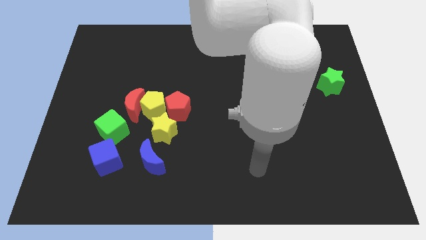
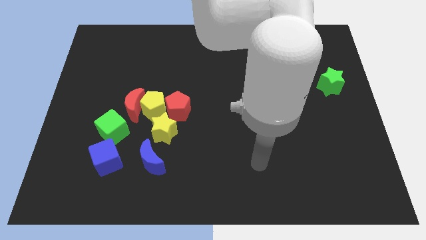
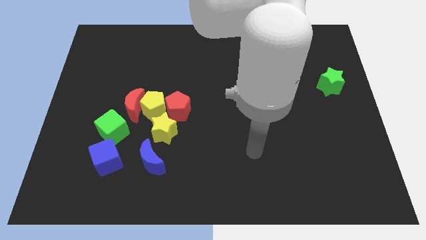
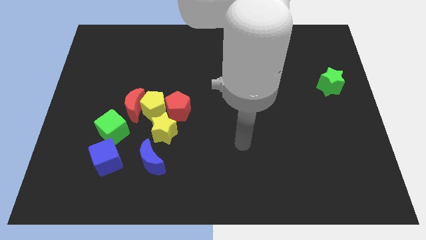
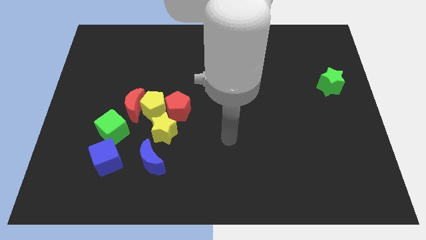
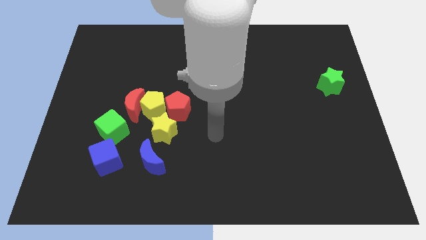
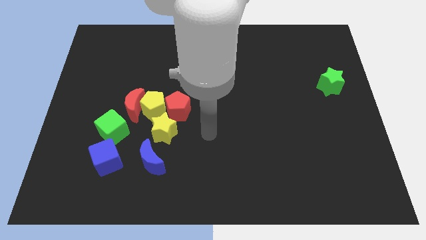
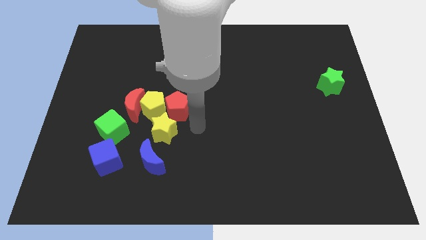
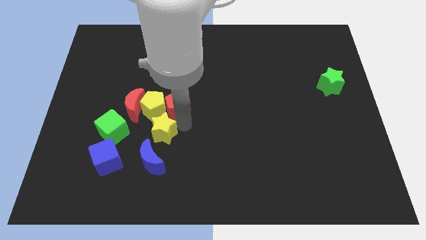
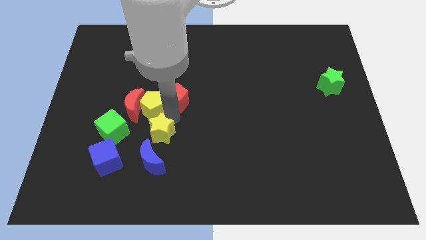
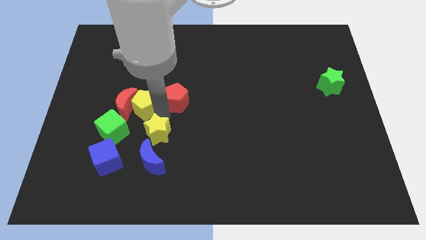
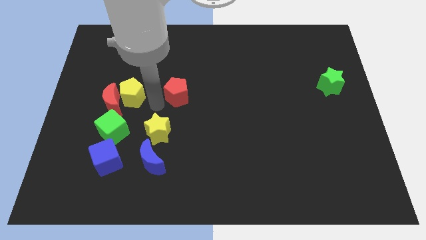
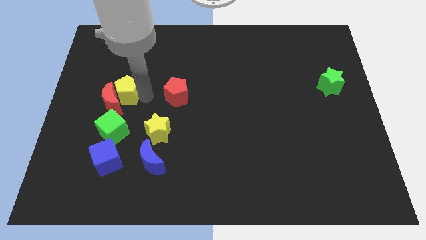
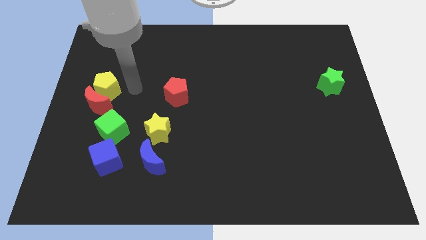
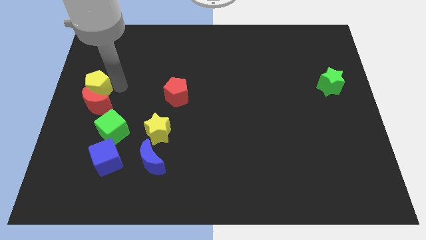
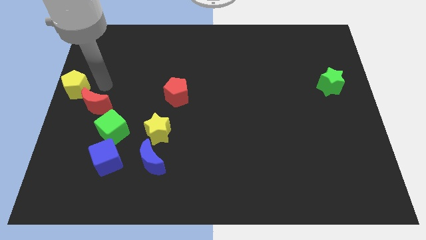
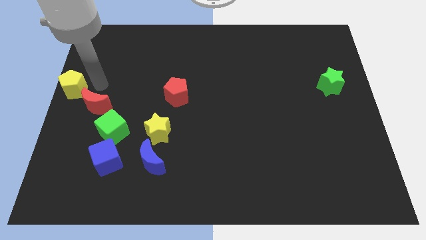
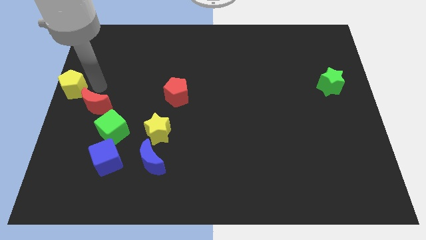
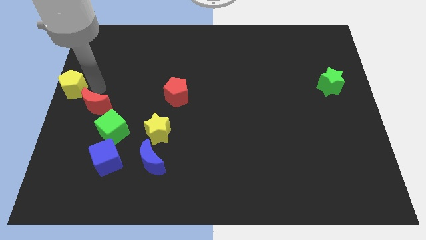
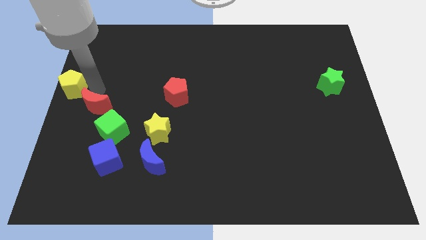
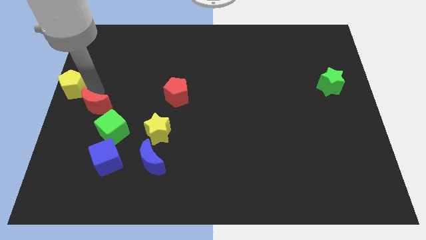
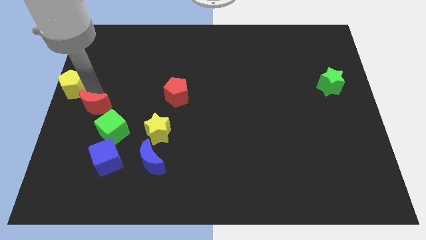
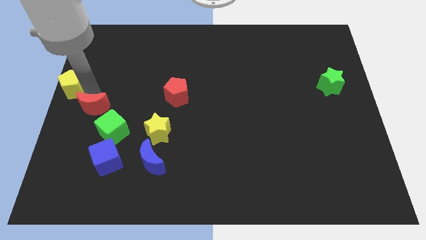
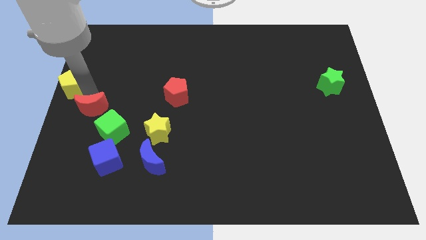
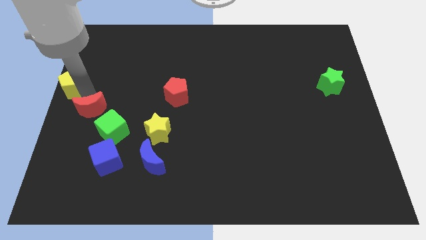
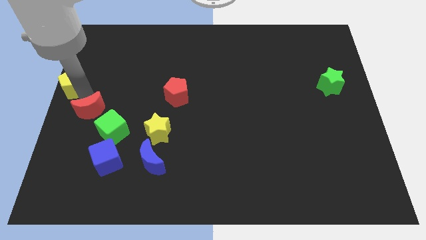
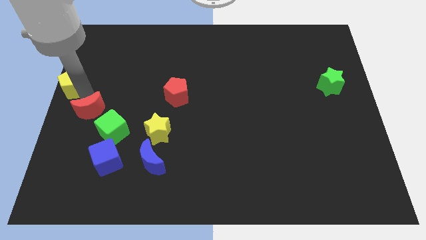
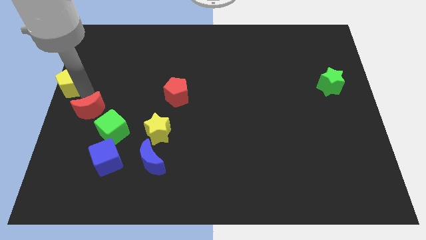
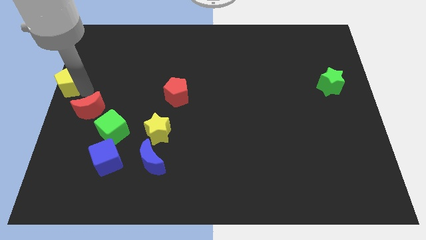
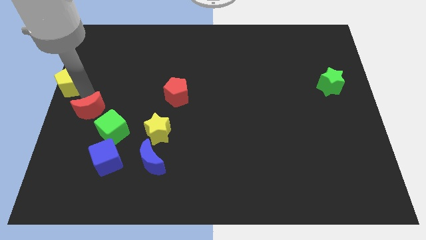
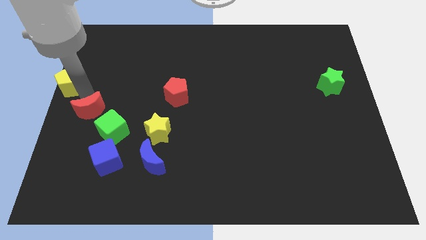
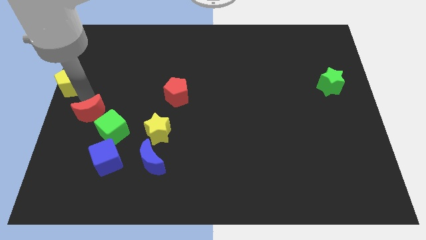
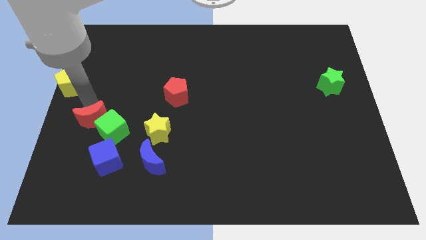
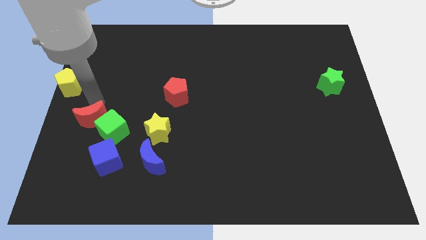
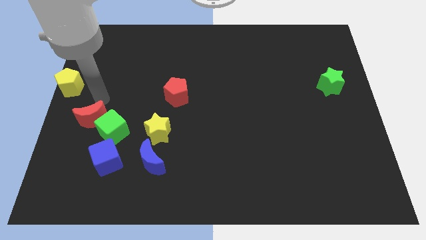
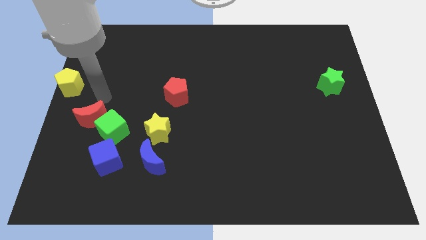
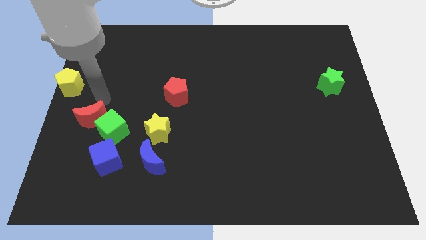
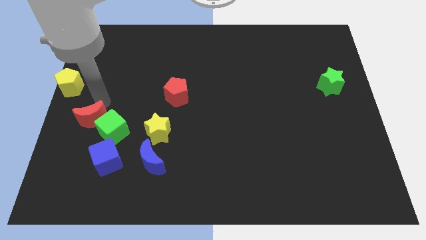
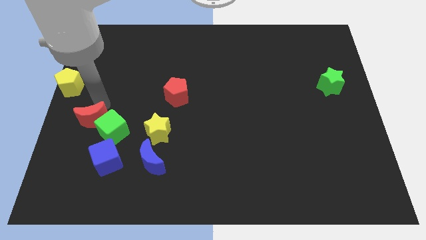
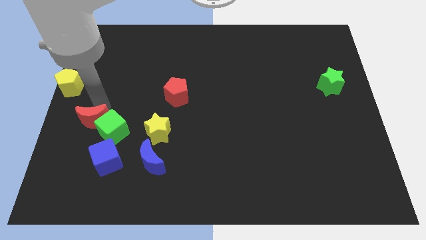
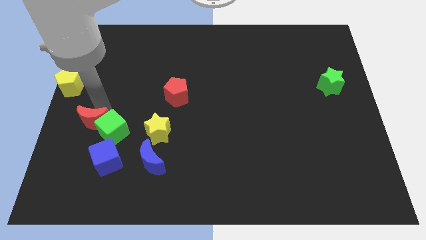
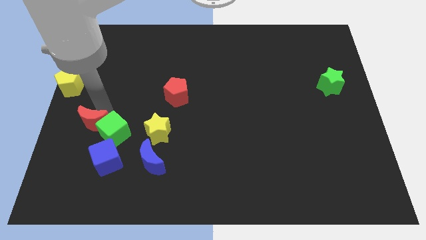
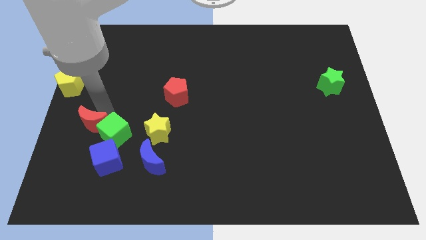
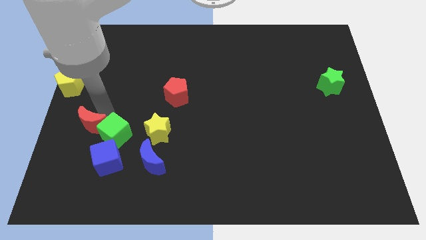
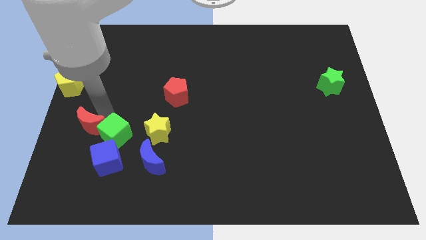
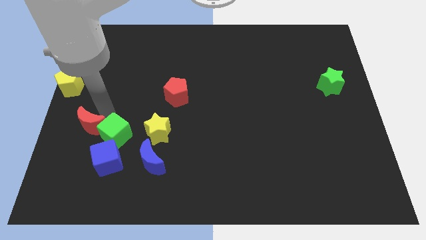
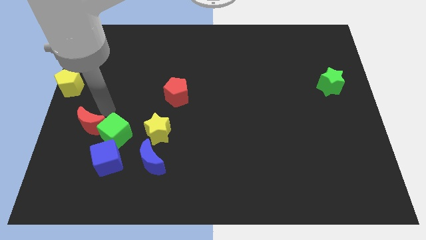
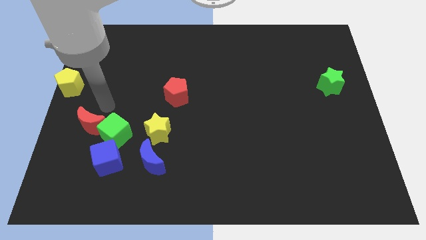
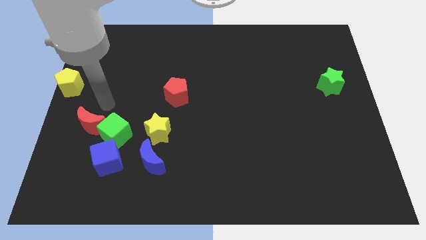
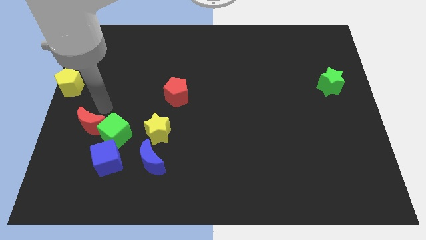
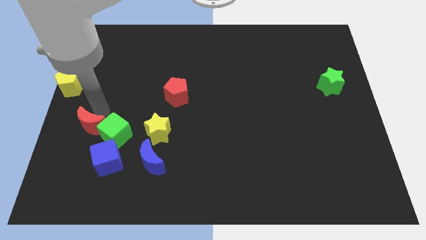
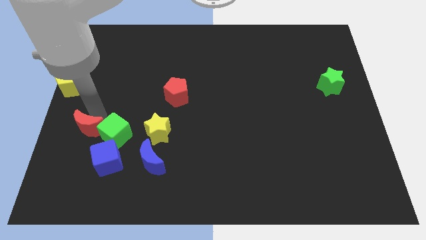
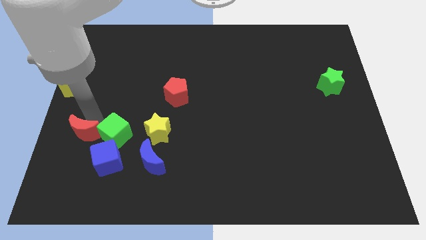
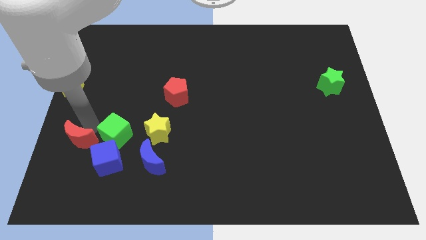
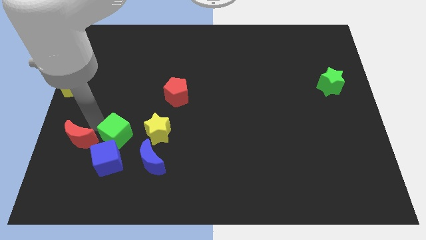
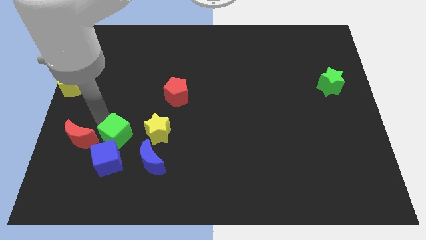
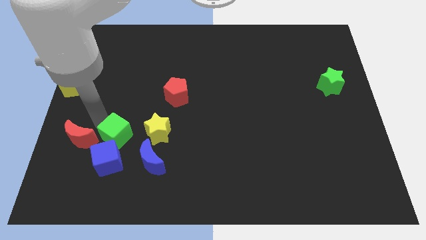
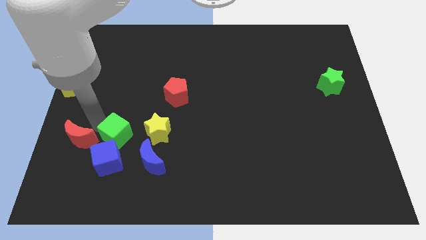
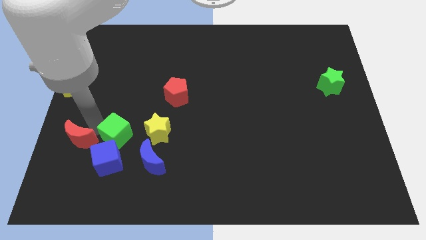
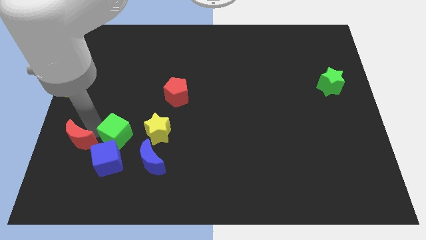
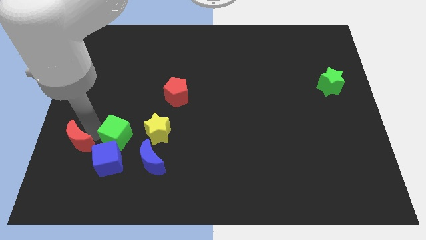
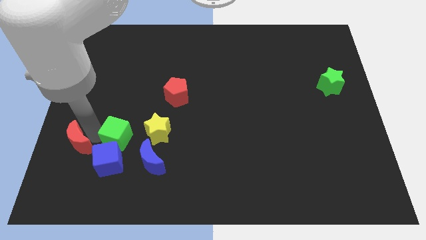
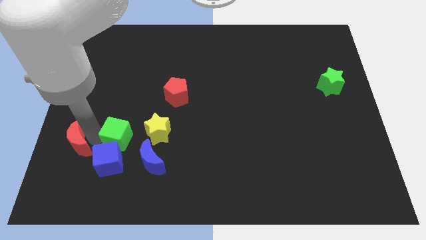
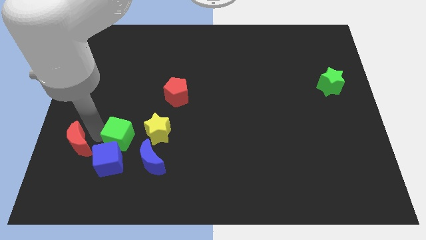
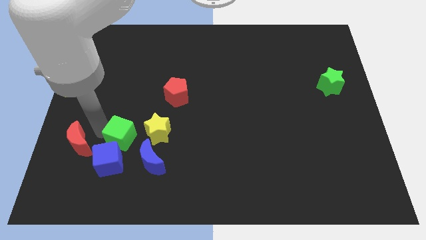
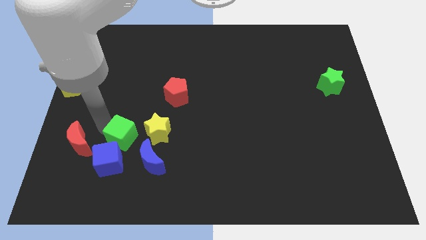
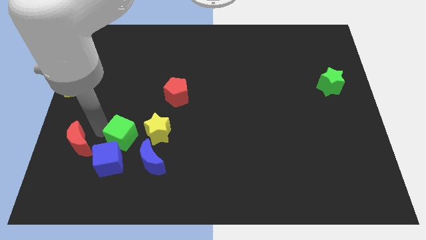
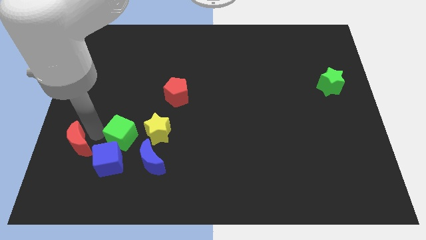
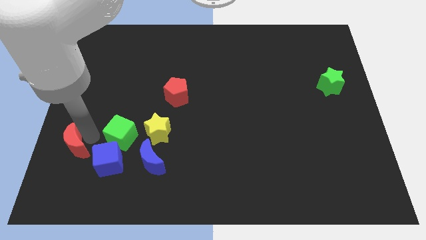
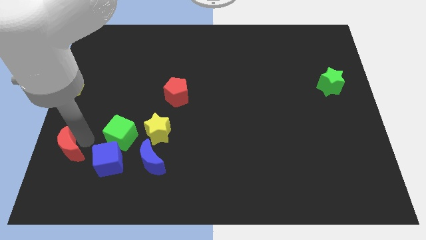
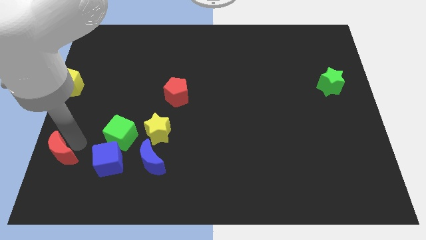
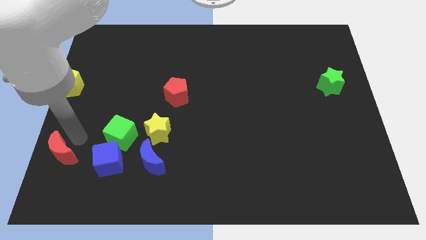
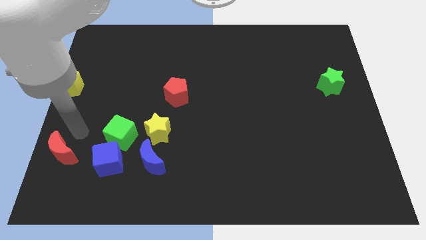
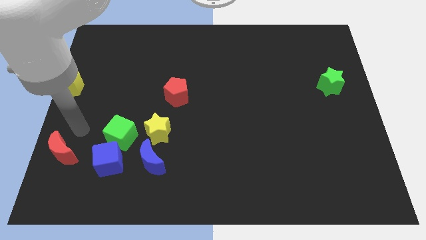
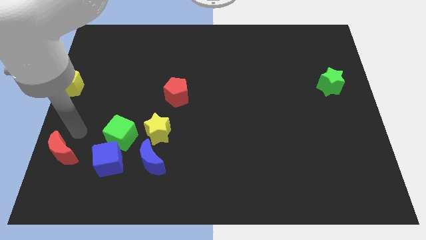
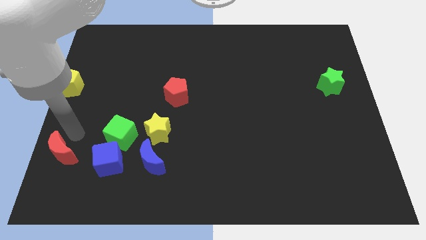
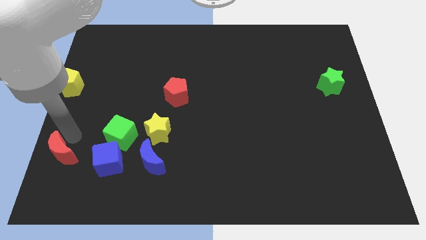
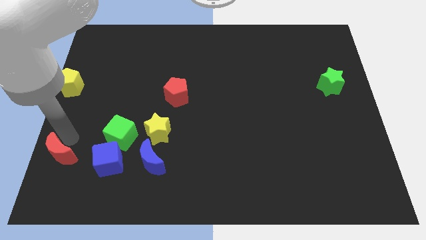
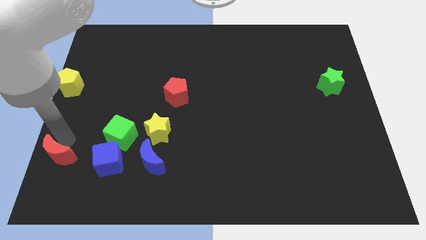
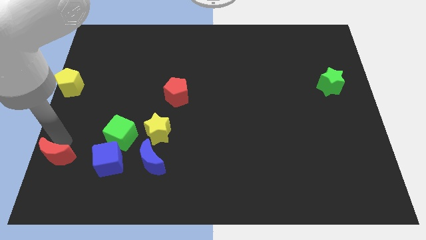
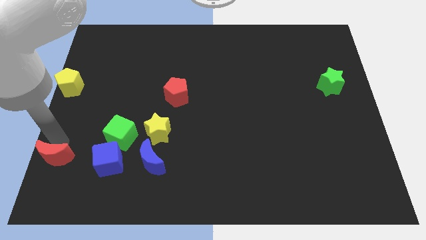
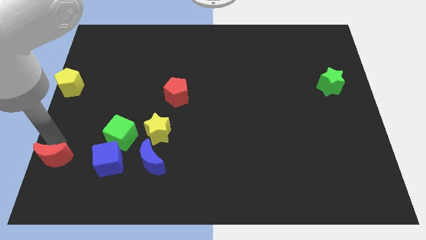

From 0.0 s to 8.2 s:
push the red moon to the bottom left
